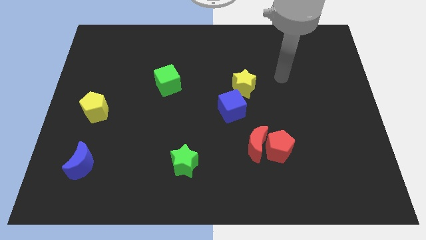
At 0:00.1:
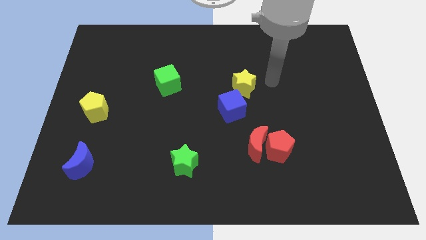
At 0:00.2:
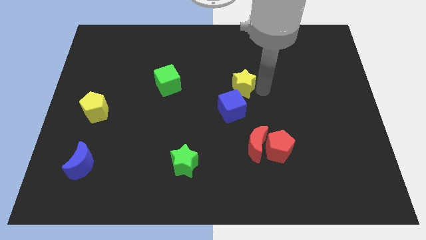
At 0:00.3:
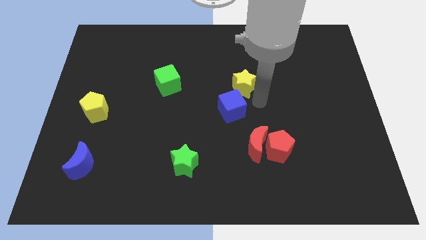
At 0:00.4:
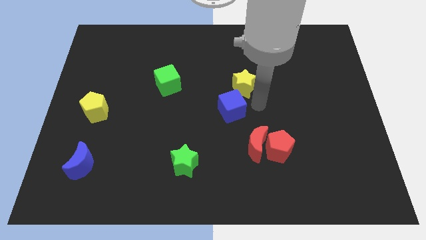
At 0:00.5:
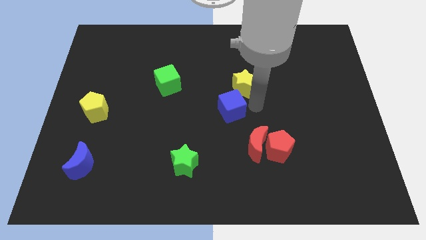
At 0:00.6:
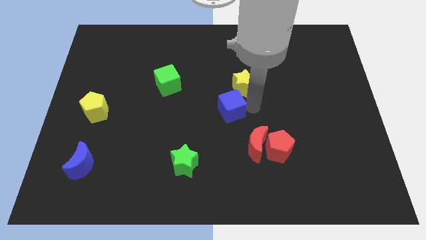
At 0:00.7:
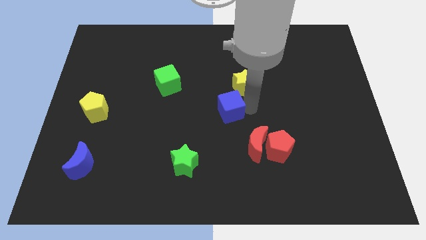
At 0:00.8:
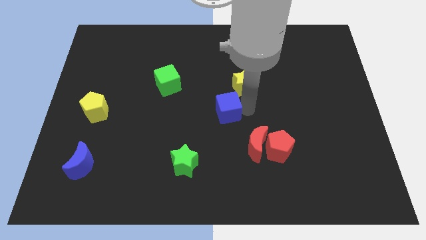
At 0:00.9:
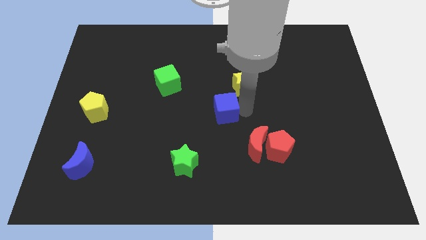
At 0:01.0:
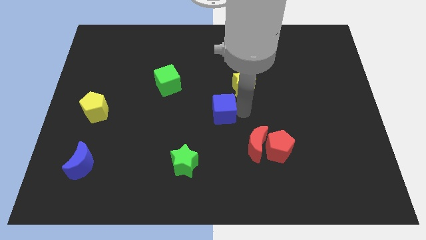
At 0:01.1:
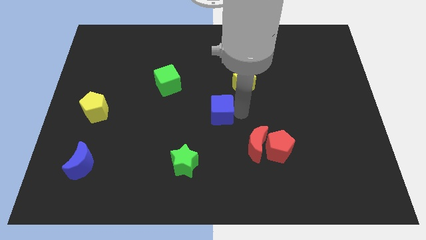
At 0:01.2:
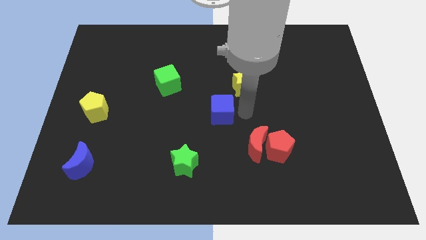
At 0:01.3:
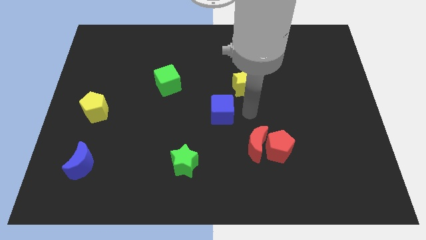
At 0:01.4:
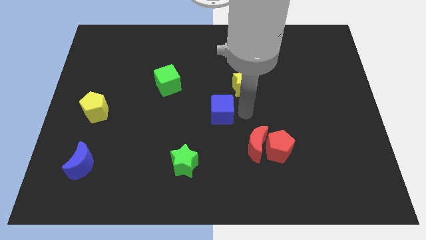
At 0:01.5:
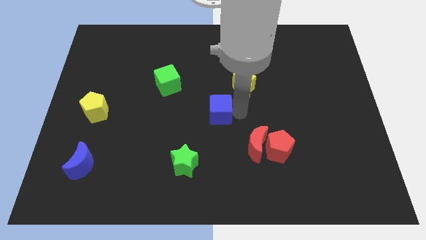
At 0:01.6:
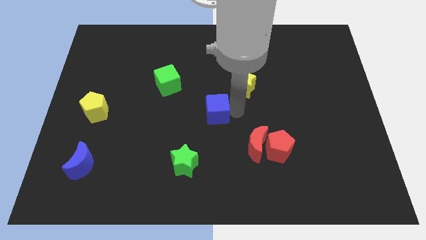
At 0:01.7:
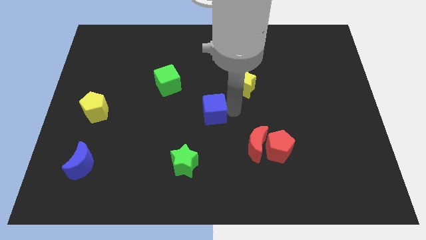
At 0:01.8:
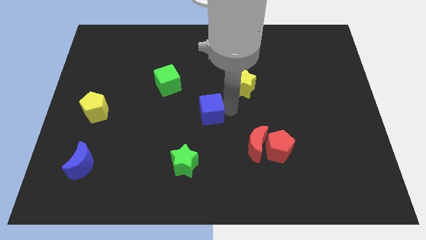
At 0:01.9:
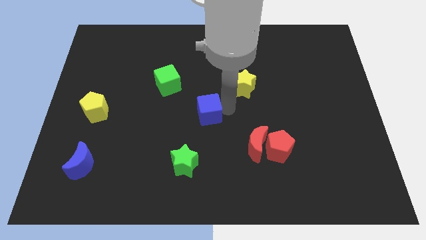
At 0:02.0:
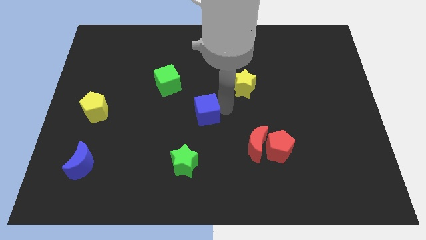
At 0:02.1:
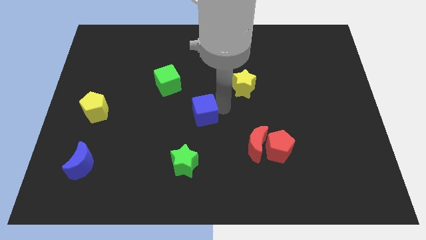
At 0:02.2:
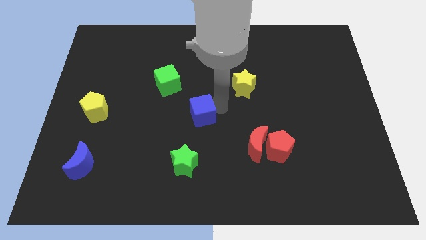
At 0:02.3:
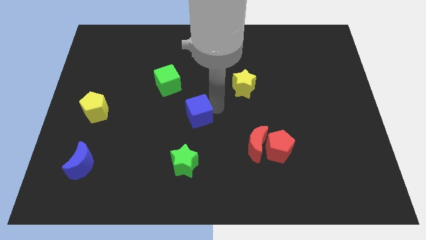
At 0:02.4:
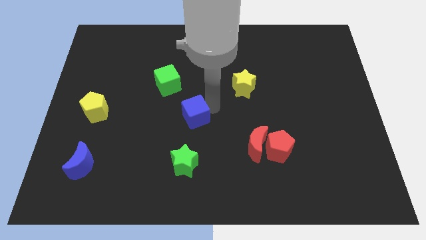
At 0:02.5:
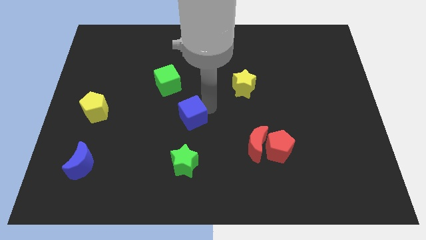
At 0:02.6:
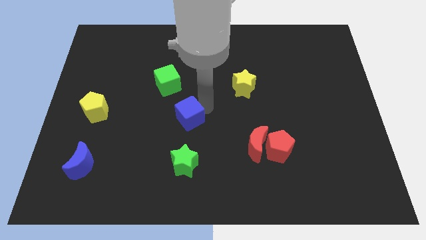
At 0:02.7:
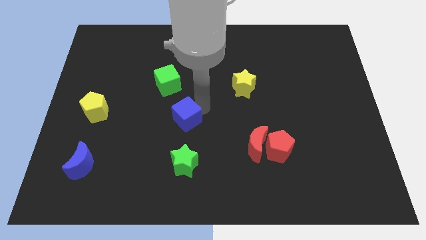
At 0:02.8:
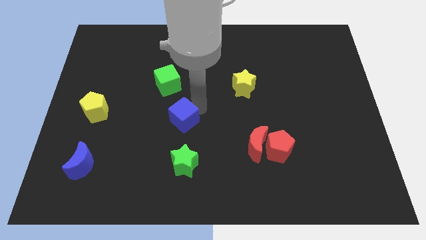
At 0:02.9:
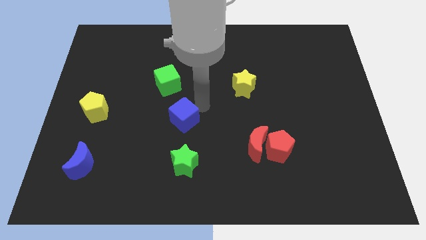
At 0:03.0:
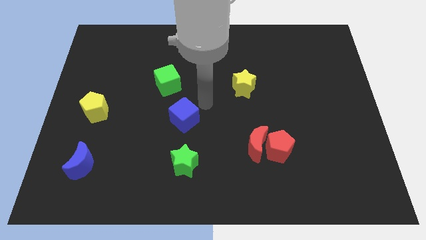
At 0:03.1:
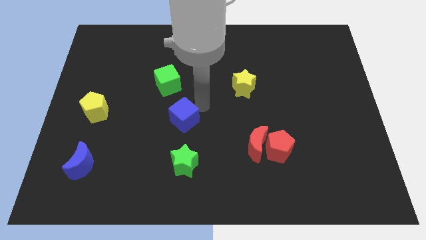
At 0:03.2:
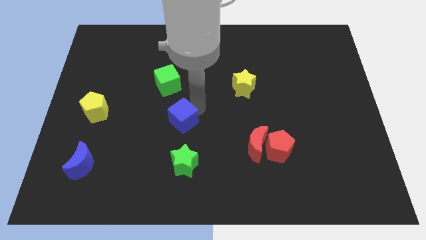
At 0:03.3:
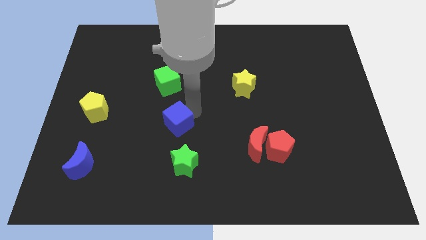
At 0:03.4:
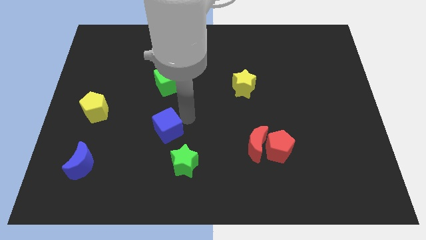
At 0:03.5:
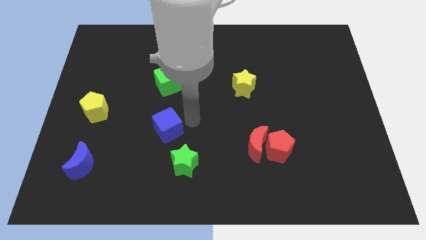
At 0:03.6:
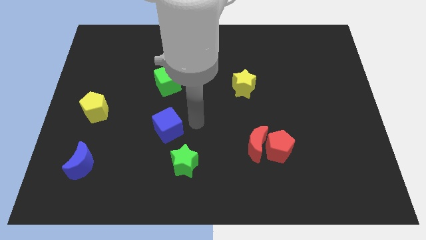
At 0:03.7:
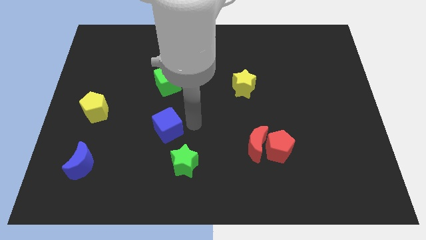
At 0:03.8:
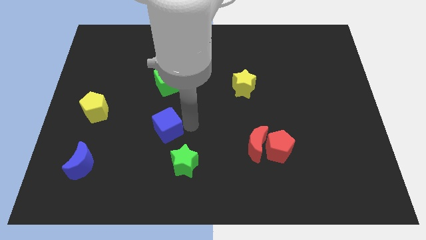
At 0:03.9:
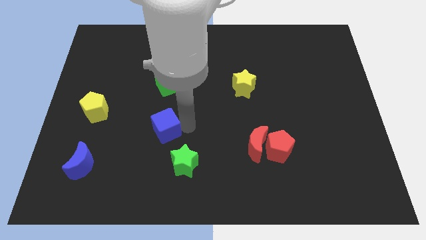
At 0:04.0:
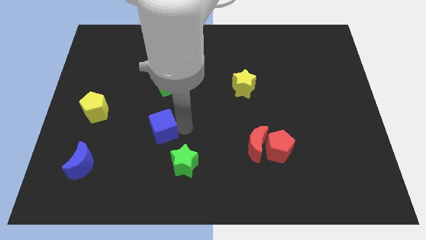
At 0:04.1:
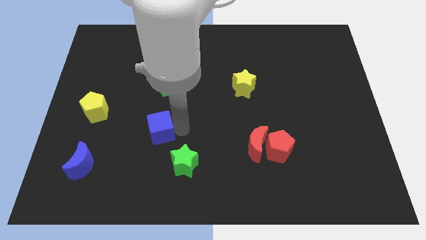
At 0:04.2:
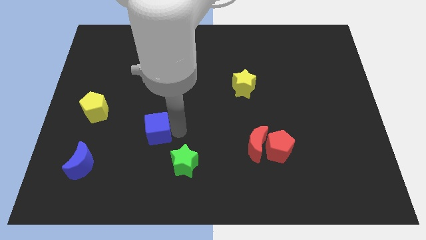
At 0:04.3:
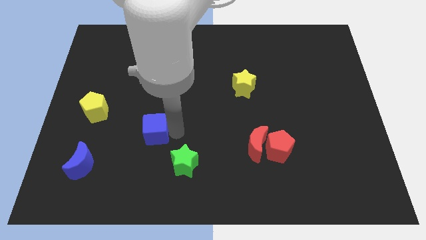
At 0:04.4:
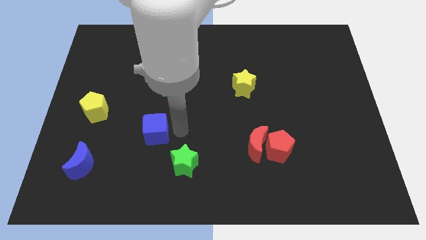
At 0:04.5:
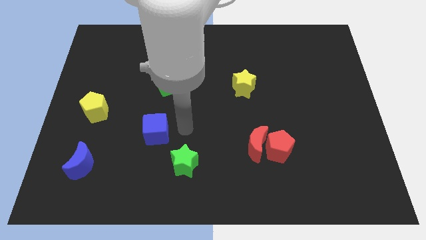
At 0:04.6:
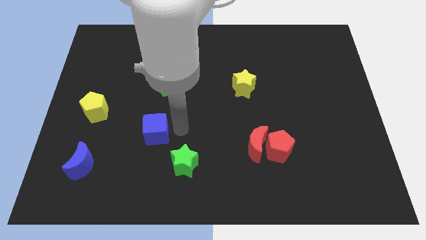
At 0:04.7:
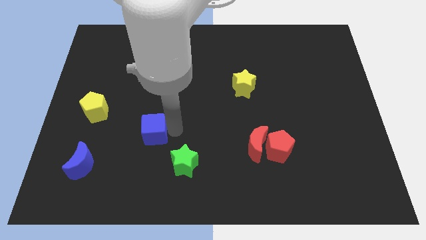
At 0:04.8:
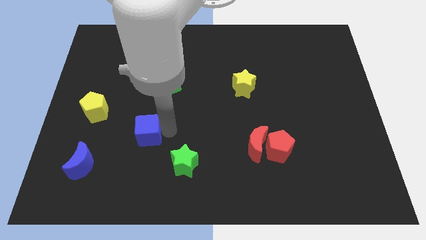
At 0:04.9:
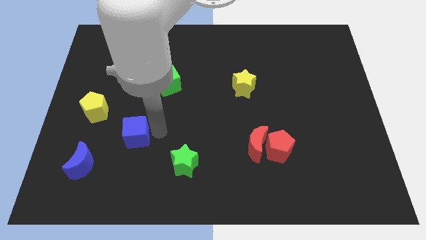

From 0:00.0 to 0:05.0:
move the blue cube diagonally up and to the right of the blue moon

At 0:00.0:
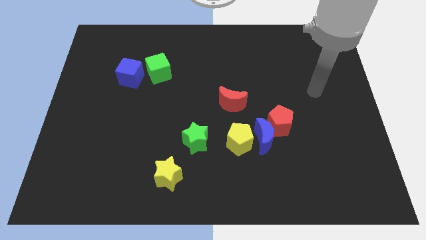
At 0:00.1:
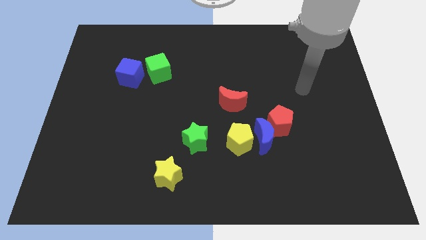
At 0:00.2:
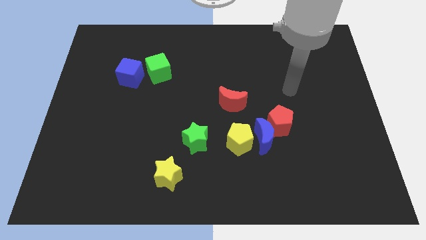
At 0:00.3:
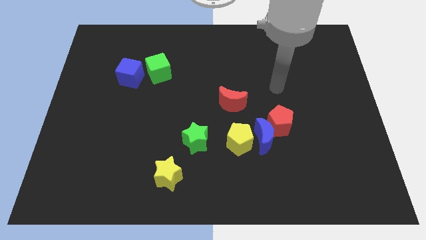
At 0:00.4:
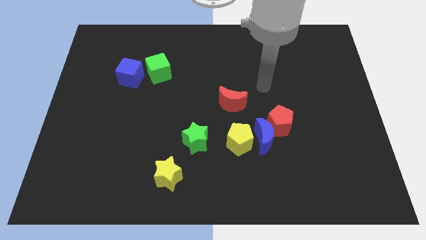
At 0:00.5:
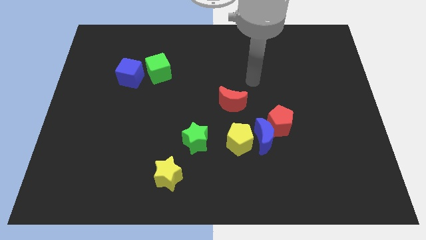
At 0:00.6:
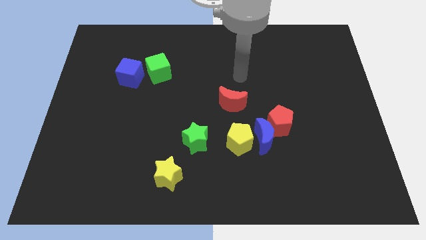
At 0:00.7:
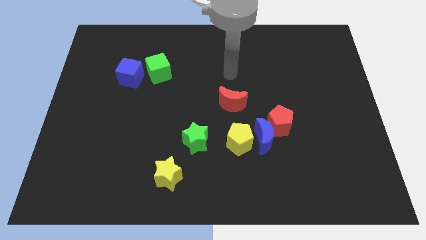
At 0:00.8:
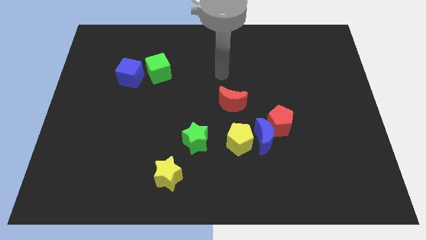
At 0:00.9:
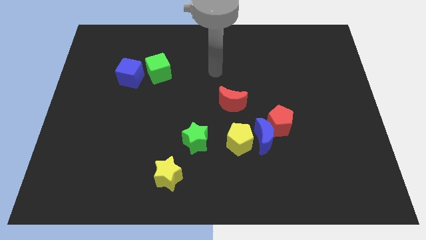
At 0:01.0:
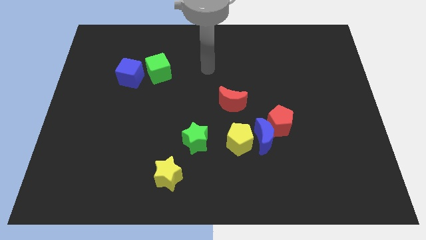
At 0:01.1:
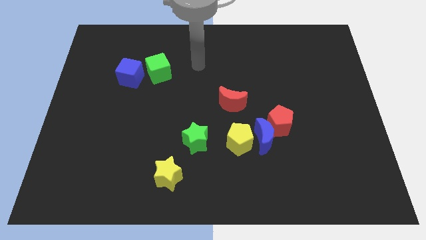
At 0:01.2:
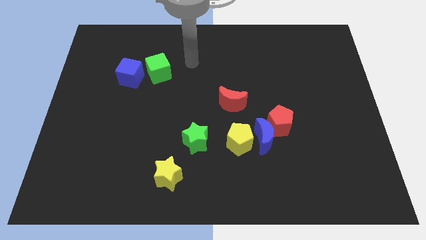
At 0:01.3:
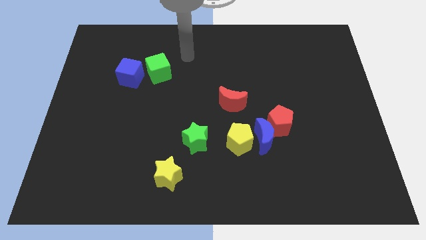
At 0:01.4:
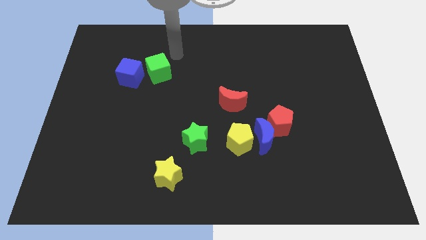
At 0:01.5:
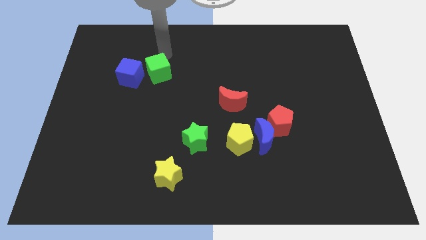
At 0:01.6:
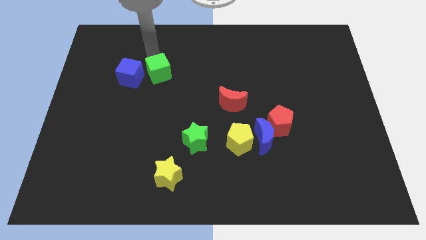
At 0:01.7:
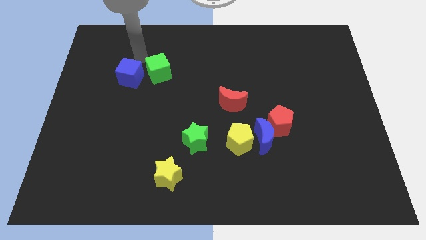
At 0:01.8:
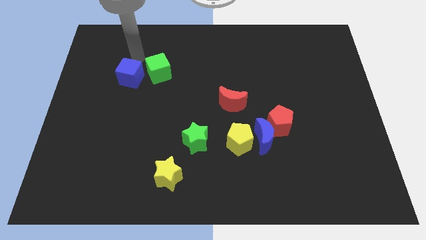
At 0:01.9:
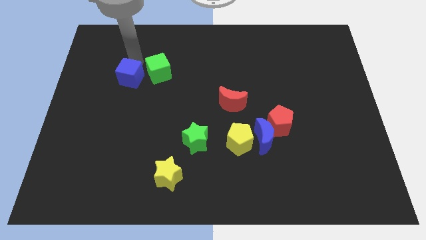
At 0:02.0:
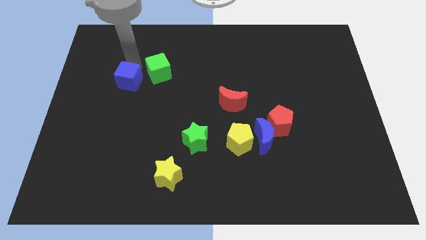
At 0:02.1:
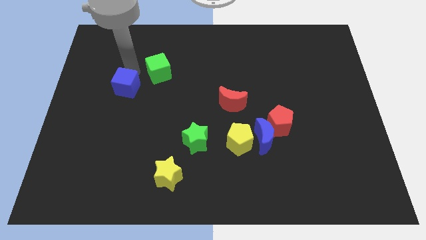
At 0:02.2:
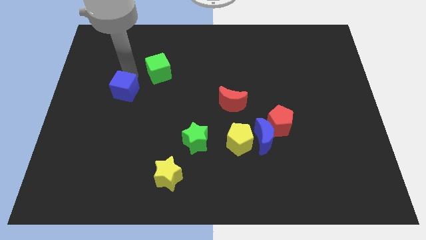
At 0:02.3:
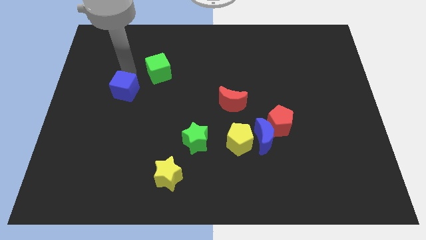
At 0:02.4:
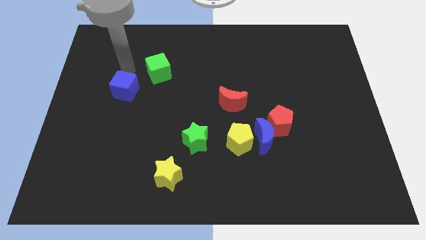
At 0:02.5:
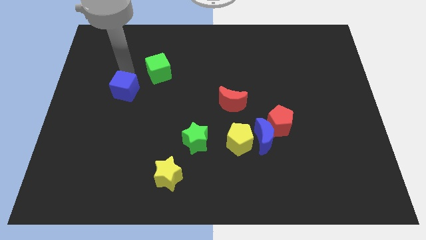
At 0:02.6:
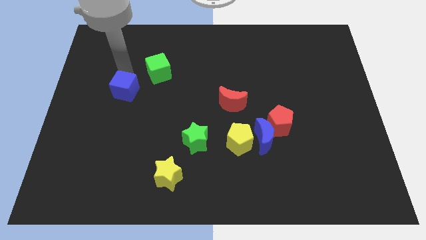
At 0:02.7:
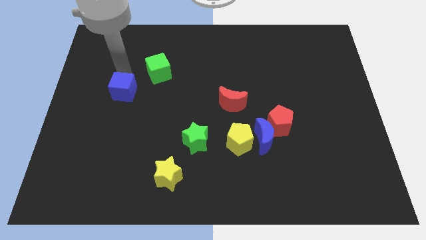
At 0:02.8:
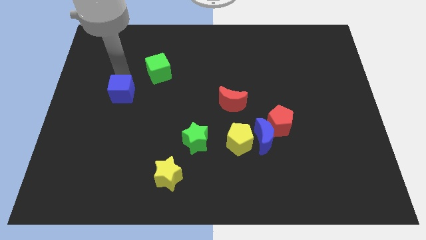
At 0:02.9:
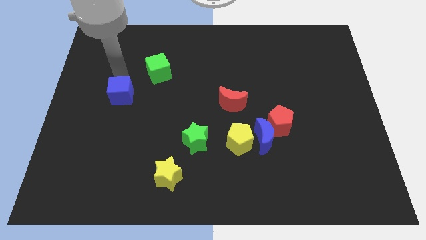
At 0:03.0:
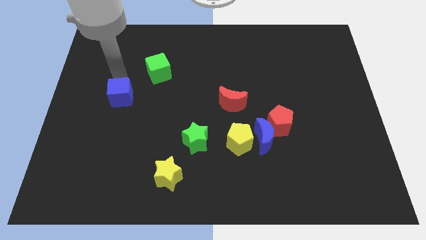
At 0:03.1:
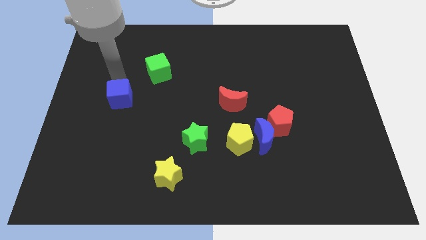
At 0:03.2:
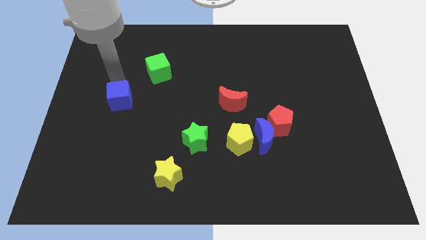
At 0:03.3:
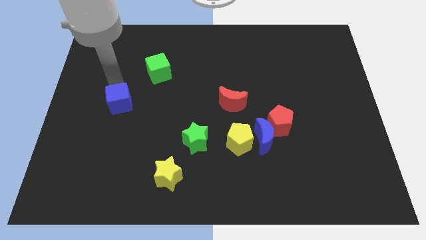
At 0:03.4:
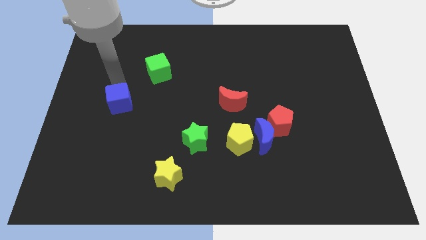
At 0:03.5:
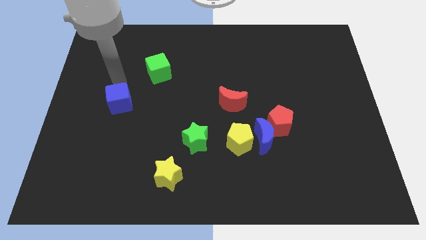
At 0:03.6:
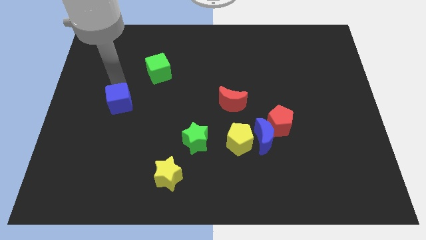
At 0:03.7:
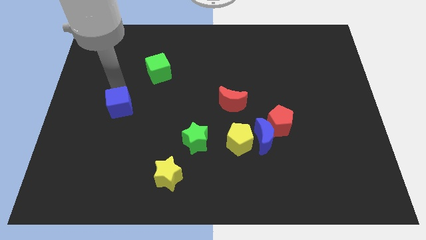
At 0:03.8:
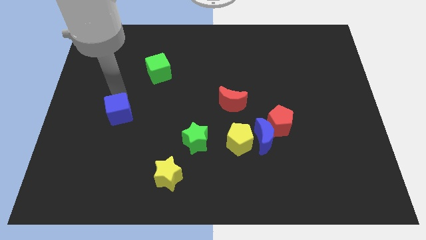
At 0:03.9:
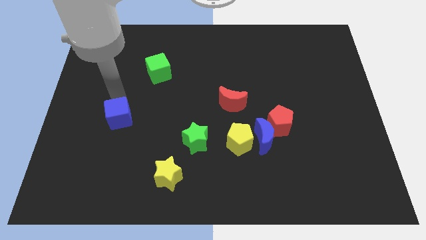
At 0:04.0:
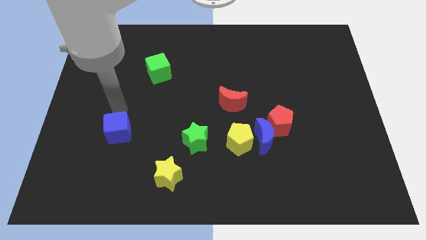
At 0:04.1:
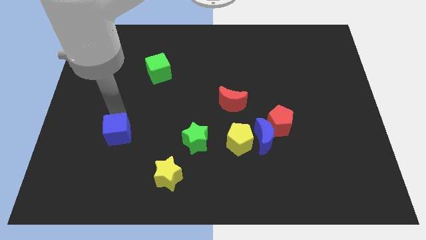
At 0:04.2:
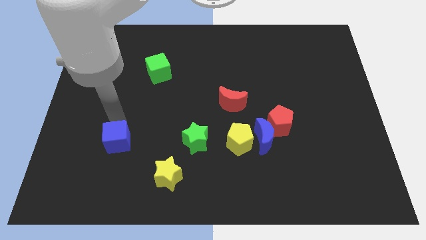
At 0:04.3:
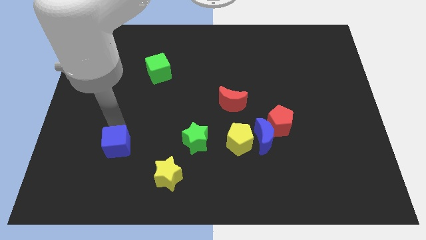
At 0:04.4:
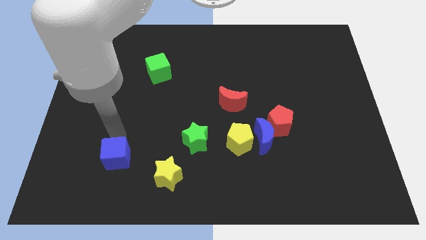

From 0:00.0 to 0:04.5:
put the blue cube to the left side of the yellow star
